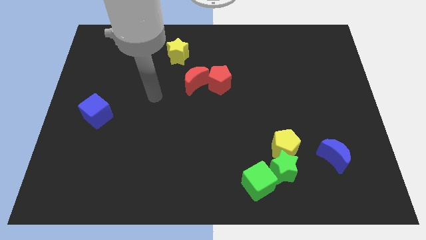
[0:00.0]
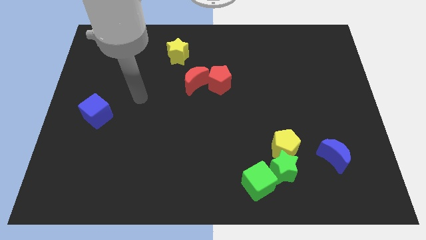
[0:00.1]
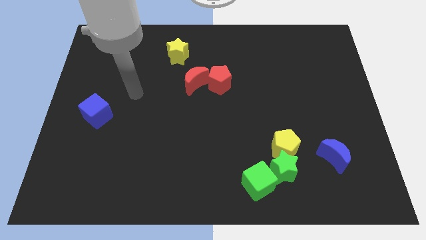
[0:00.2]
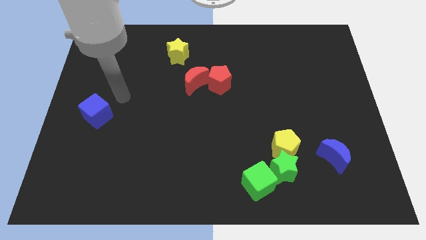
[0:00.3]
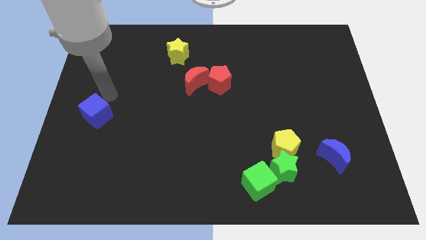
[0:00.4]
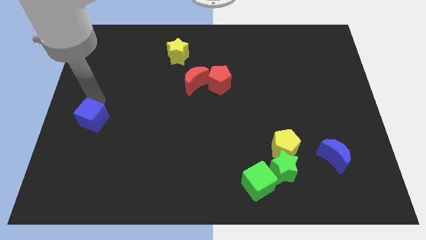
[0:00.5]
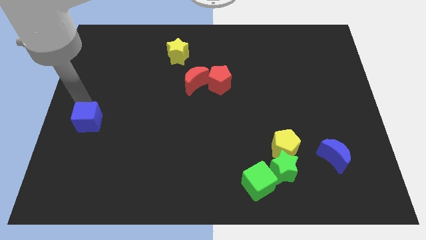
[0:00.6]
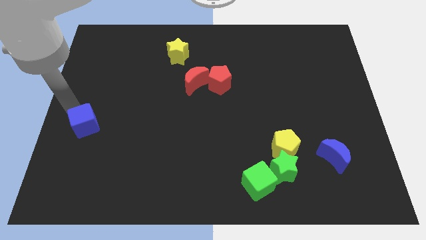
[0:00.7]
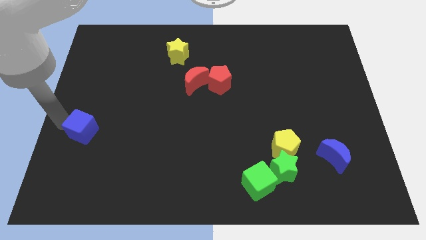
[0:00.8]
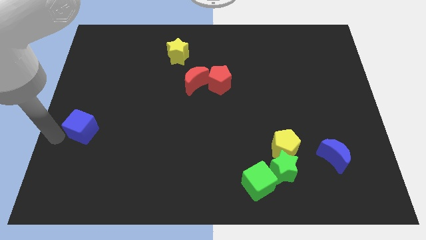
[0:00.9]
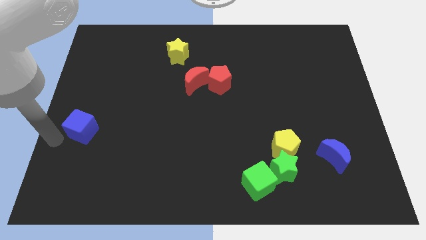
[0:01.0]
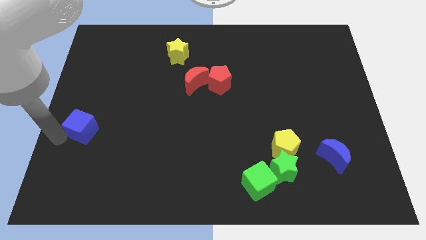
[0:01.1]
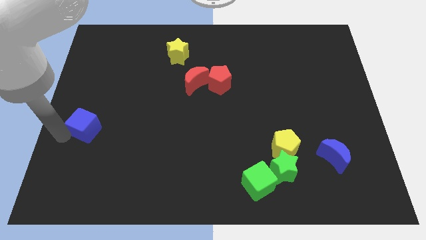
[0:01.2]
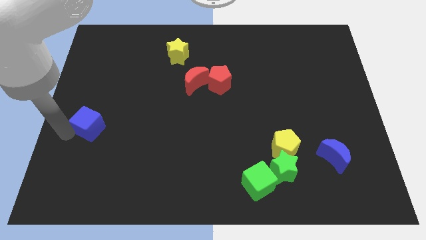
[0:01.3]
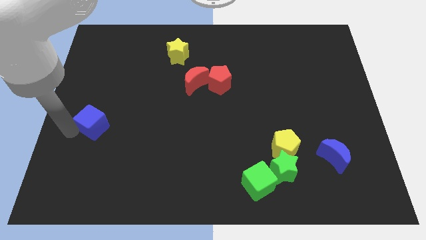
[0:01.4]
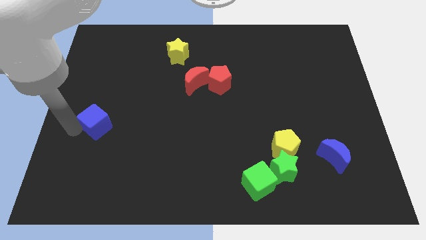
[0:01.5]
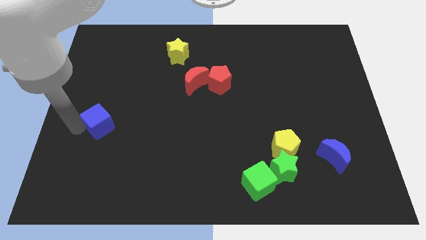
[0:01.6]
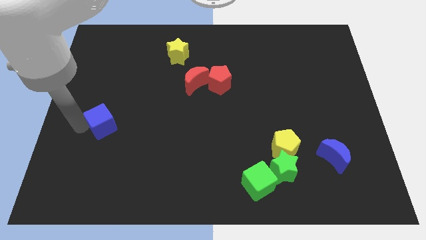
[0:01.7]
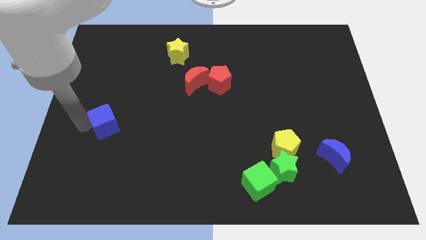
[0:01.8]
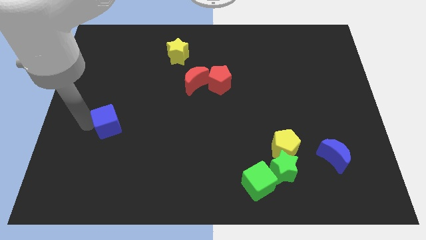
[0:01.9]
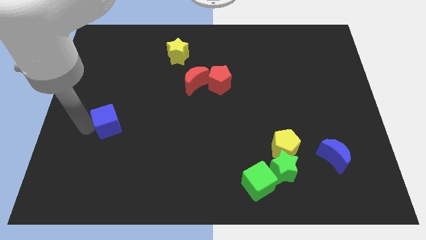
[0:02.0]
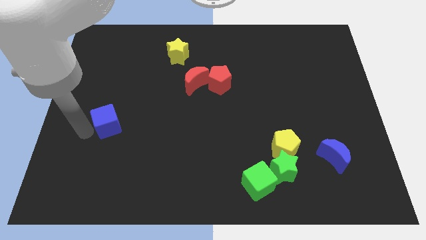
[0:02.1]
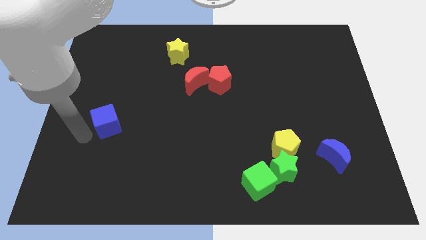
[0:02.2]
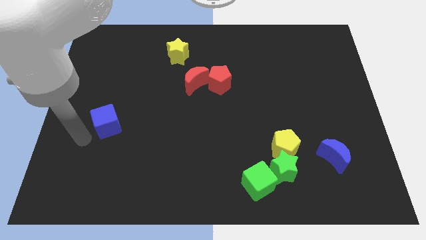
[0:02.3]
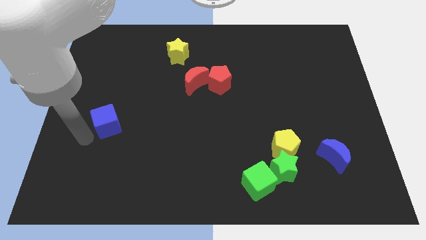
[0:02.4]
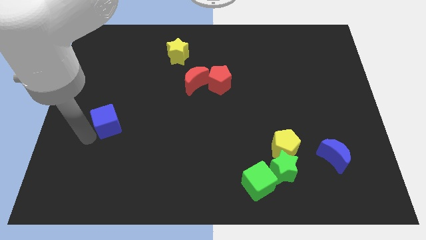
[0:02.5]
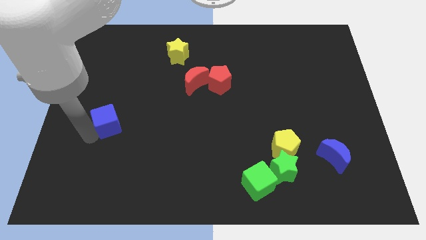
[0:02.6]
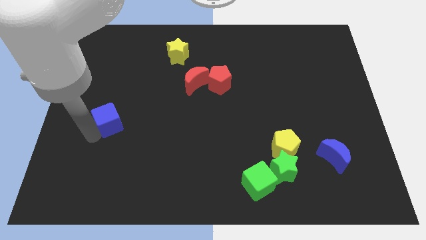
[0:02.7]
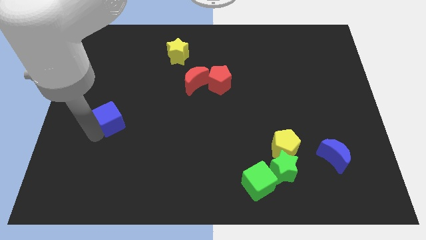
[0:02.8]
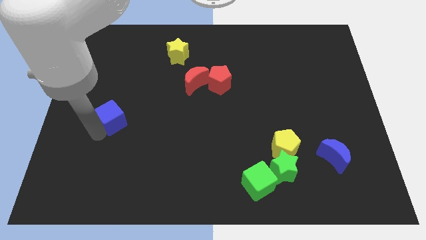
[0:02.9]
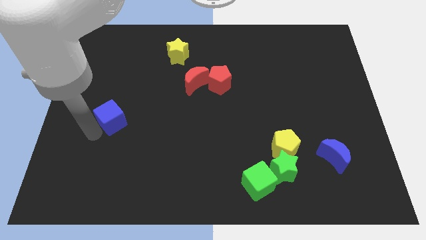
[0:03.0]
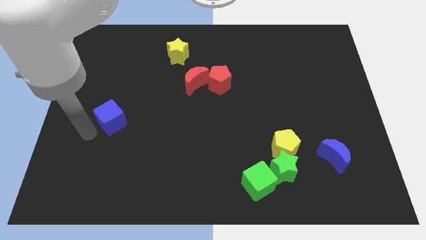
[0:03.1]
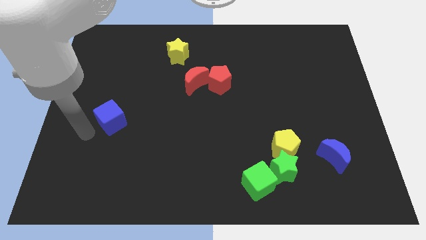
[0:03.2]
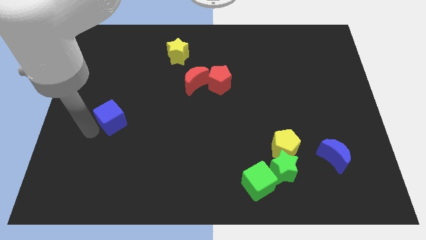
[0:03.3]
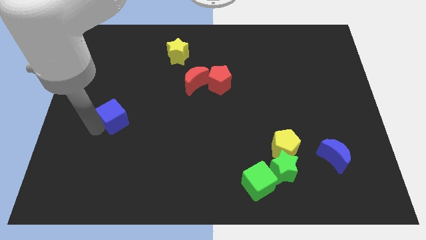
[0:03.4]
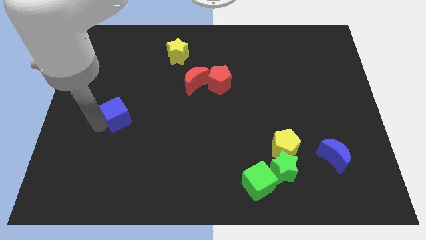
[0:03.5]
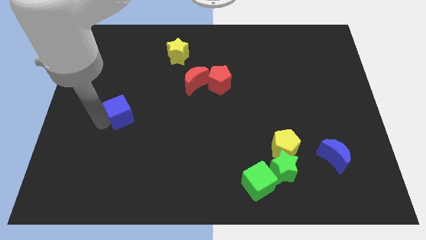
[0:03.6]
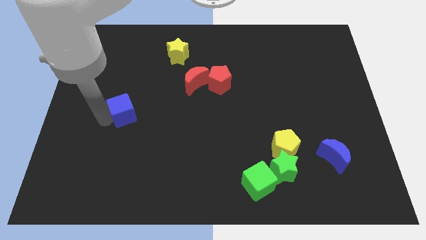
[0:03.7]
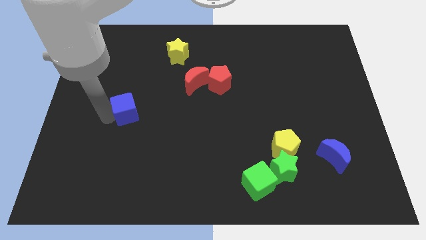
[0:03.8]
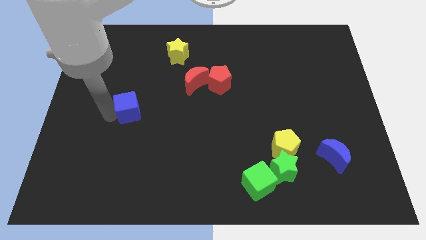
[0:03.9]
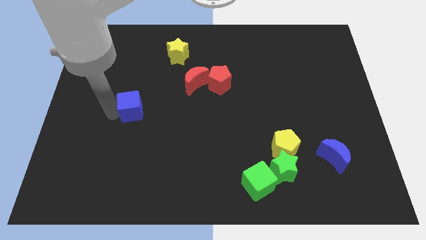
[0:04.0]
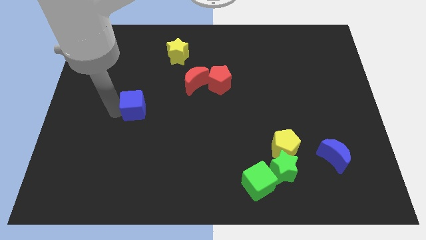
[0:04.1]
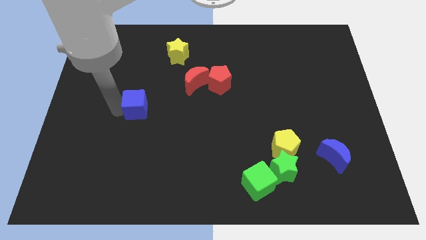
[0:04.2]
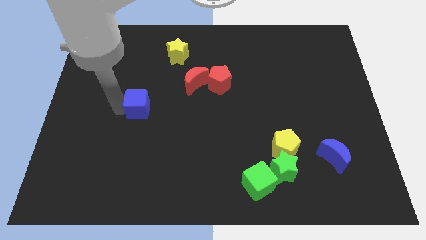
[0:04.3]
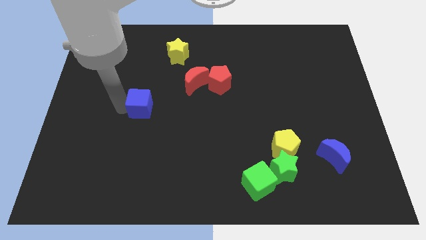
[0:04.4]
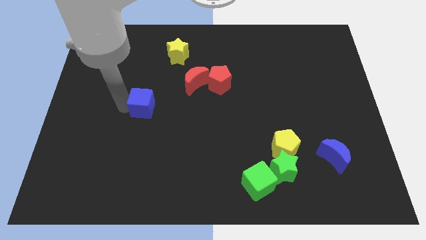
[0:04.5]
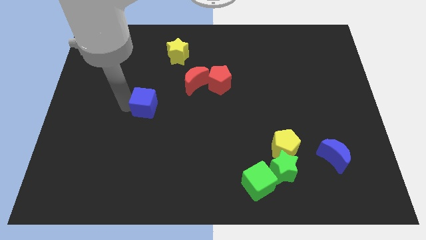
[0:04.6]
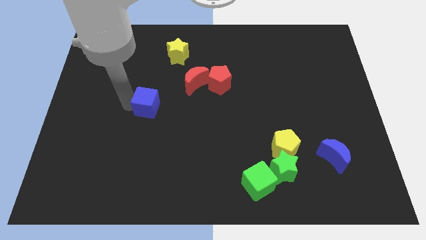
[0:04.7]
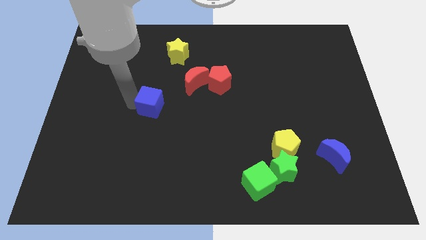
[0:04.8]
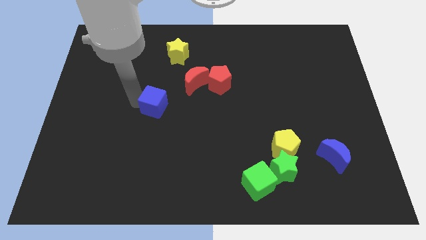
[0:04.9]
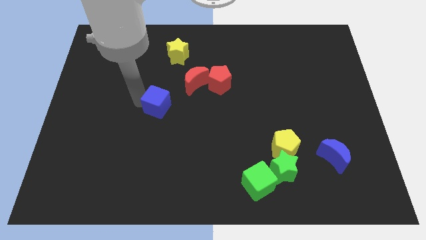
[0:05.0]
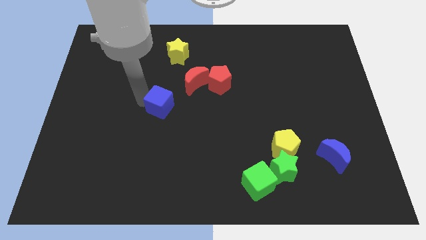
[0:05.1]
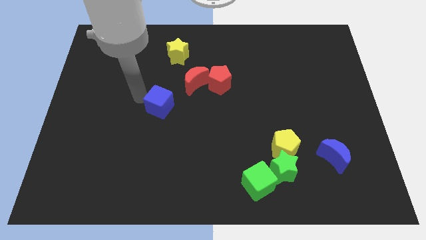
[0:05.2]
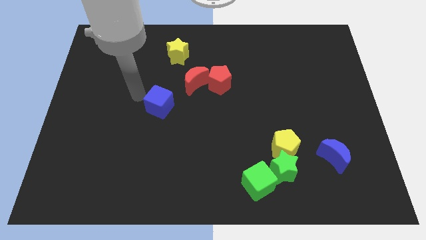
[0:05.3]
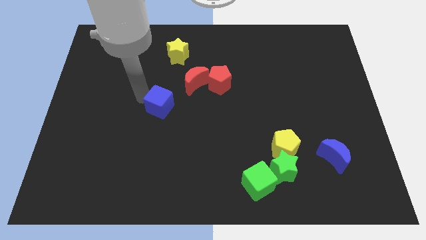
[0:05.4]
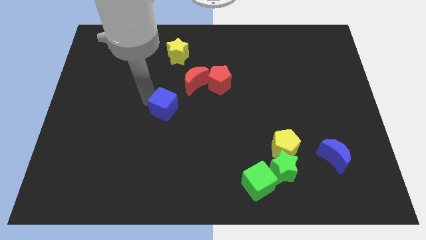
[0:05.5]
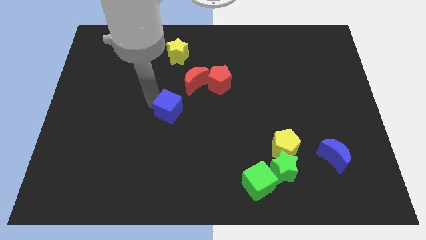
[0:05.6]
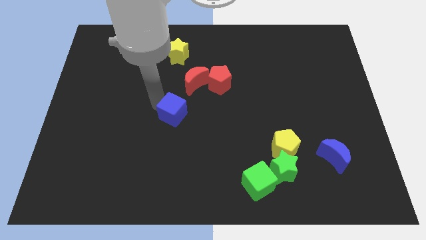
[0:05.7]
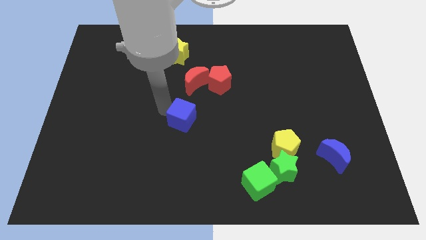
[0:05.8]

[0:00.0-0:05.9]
push the blue cube to the right

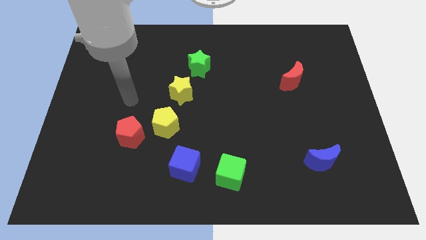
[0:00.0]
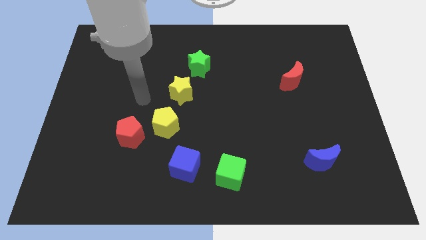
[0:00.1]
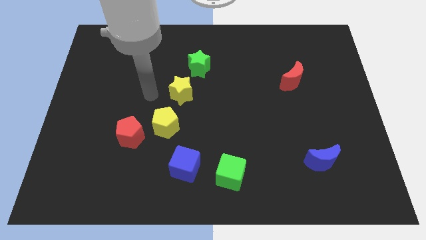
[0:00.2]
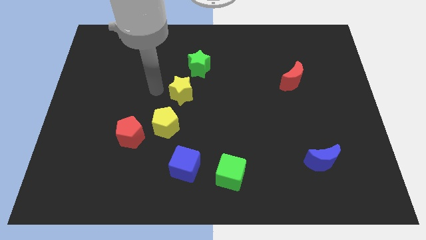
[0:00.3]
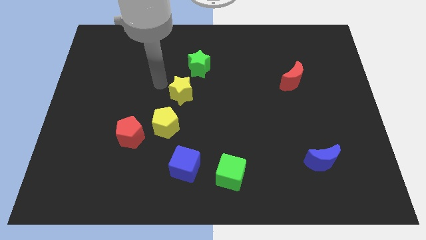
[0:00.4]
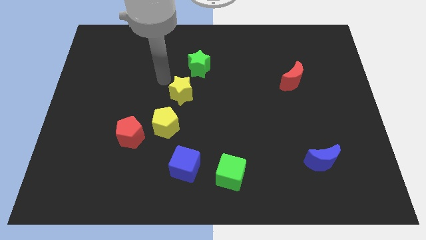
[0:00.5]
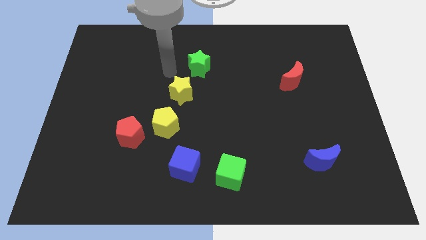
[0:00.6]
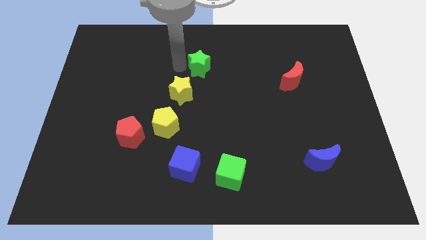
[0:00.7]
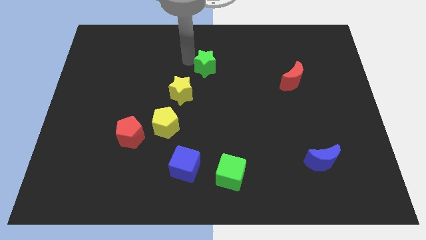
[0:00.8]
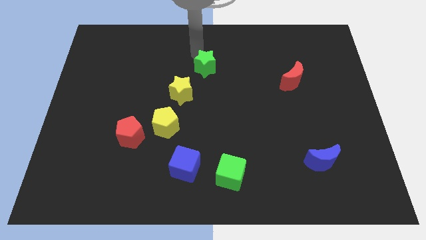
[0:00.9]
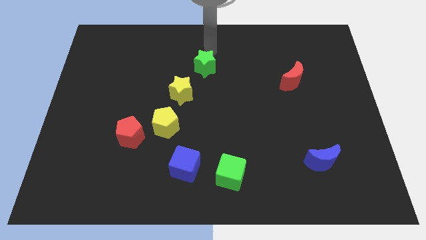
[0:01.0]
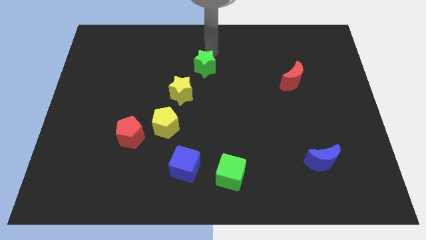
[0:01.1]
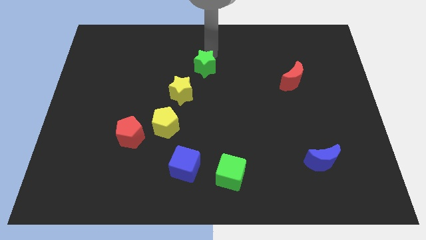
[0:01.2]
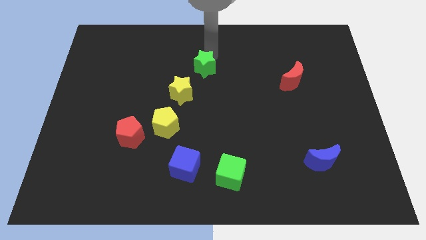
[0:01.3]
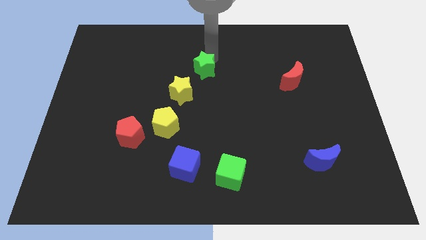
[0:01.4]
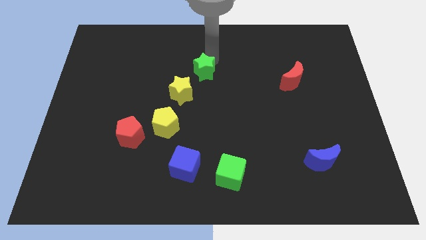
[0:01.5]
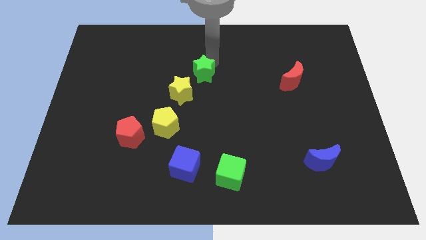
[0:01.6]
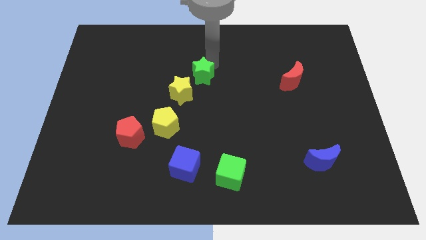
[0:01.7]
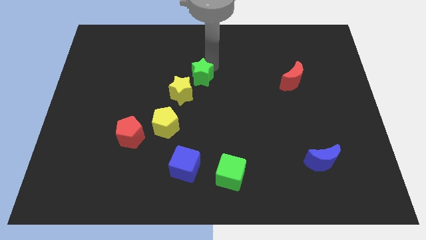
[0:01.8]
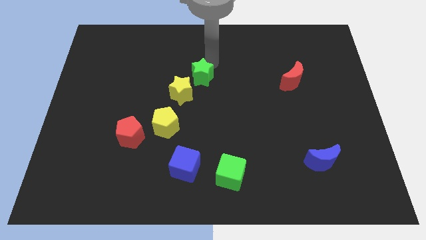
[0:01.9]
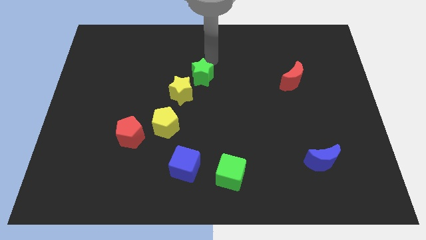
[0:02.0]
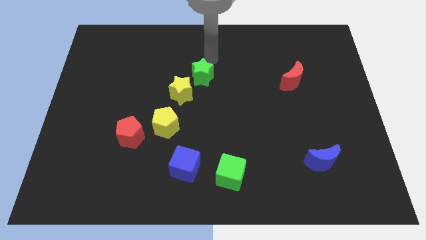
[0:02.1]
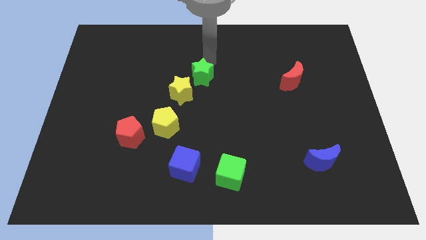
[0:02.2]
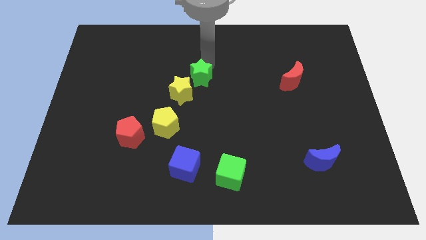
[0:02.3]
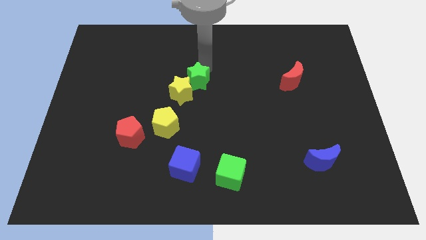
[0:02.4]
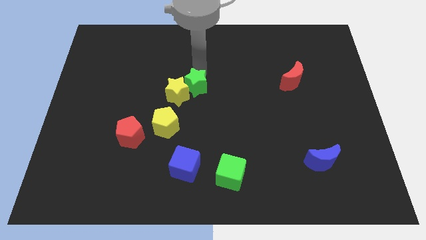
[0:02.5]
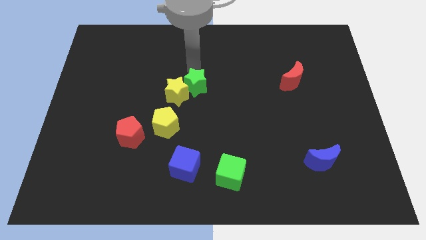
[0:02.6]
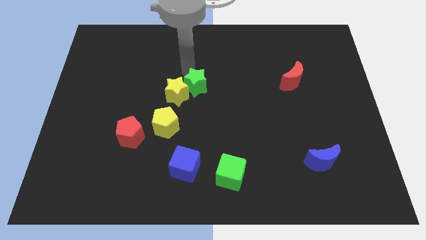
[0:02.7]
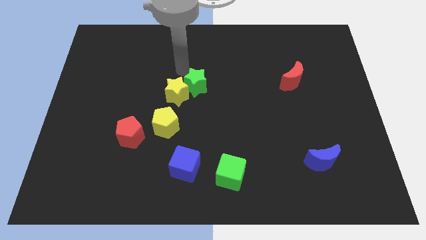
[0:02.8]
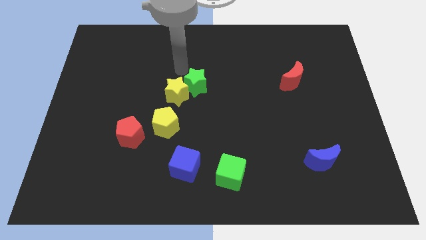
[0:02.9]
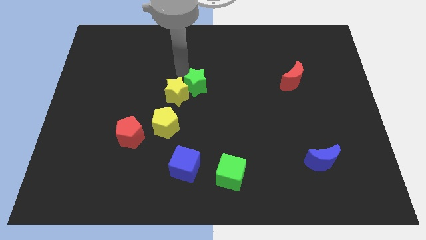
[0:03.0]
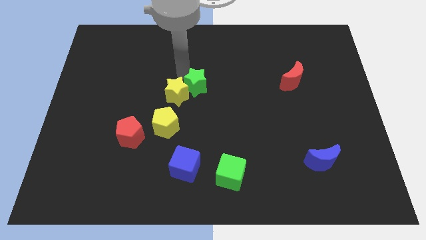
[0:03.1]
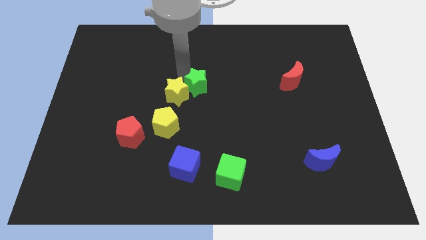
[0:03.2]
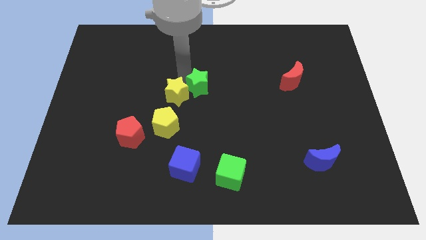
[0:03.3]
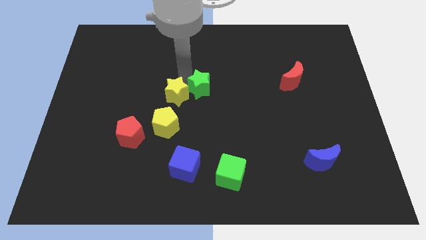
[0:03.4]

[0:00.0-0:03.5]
move the green star a little bit downwards
